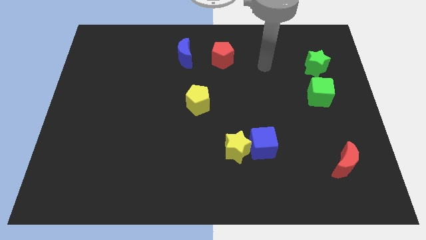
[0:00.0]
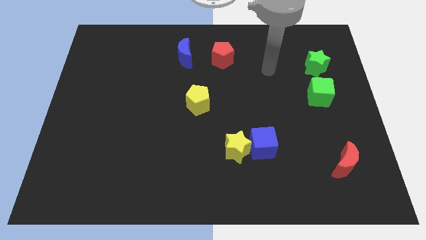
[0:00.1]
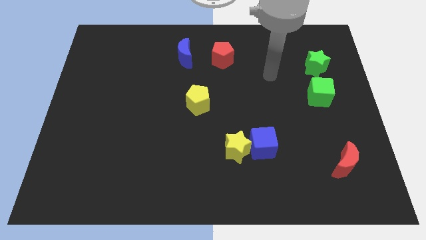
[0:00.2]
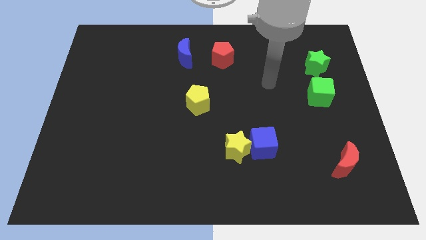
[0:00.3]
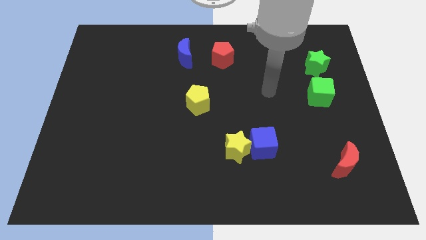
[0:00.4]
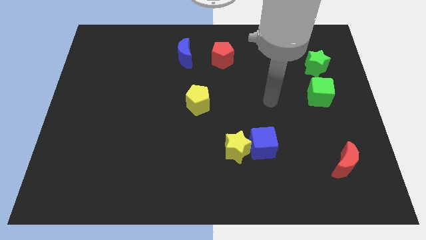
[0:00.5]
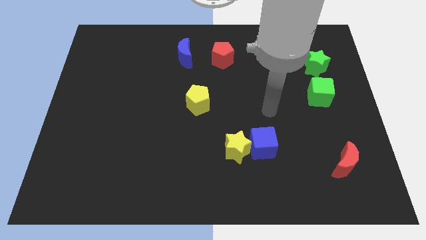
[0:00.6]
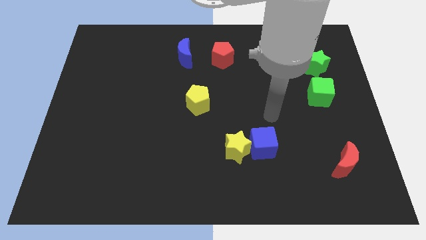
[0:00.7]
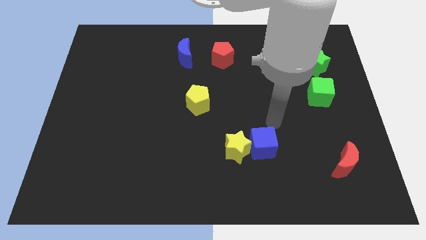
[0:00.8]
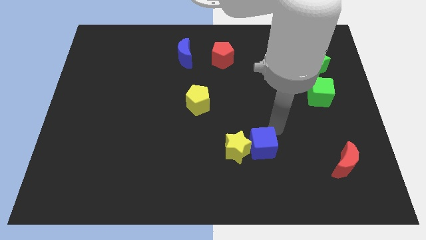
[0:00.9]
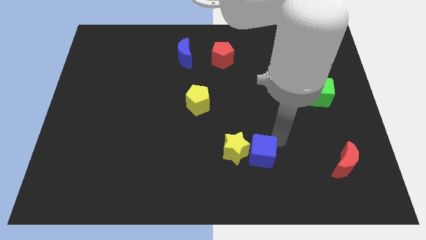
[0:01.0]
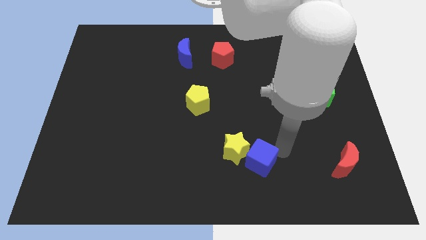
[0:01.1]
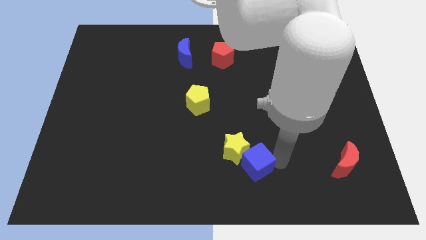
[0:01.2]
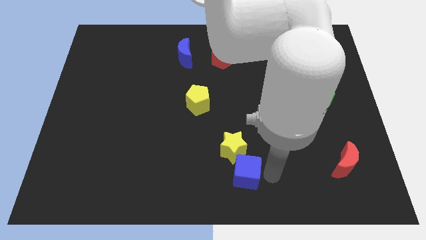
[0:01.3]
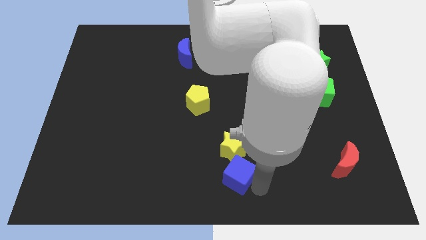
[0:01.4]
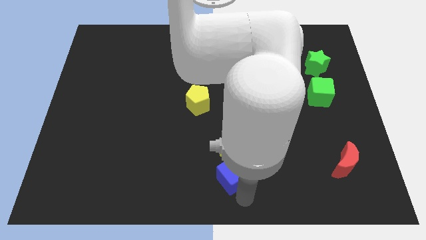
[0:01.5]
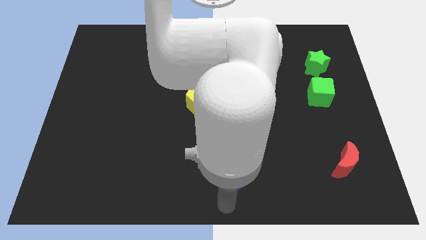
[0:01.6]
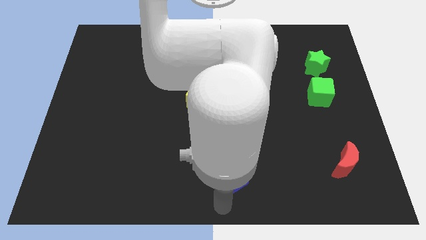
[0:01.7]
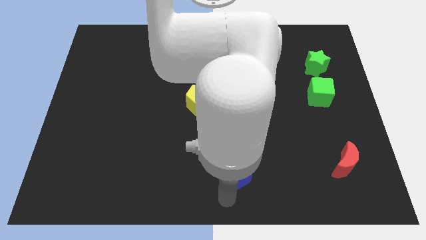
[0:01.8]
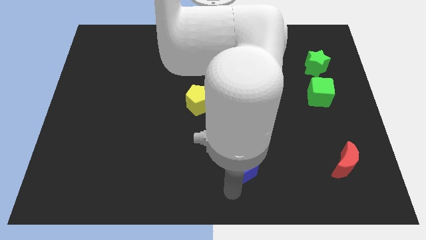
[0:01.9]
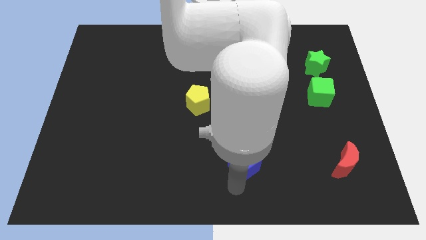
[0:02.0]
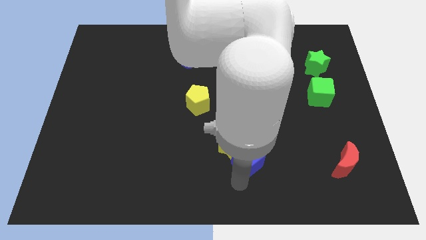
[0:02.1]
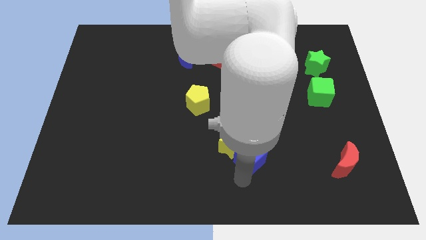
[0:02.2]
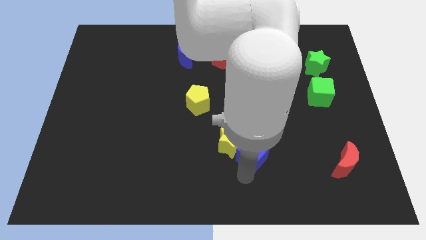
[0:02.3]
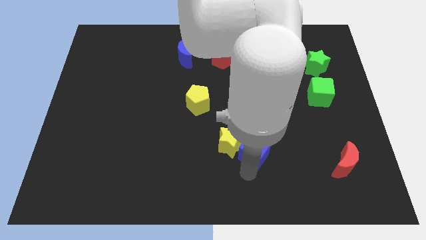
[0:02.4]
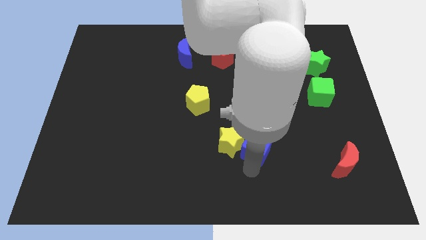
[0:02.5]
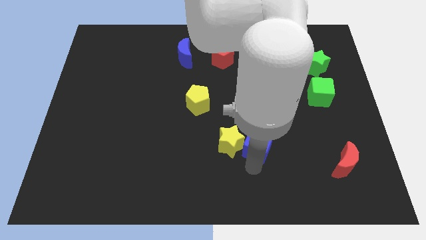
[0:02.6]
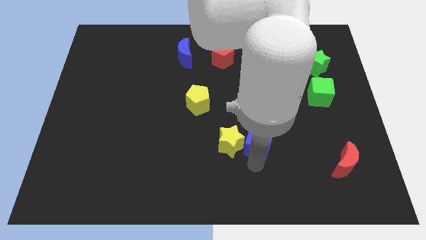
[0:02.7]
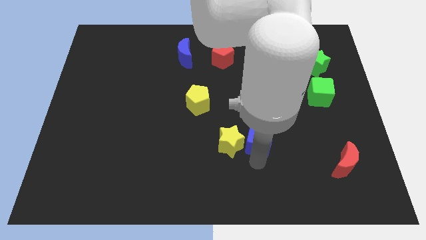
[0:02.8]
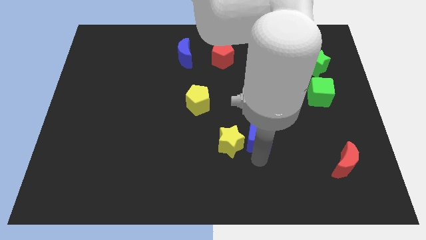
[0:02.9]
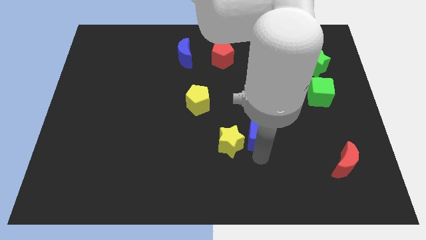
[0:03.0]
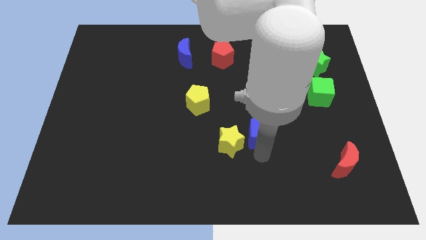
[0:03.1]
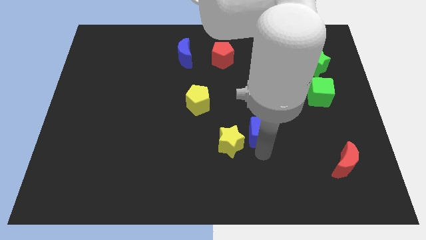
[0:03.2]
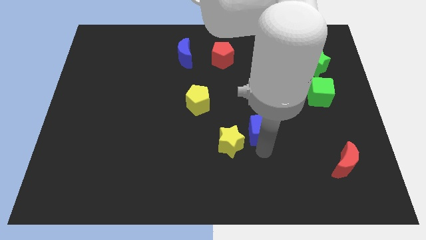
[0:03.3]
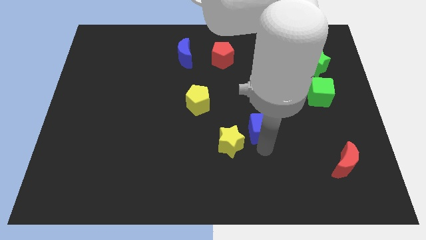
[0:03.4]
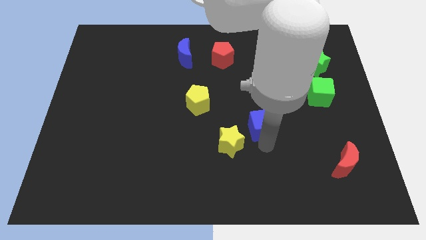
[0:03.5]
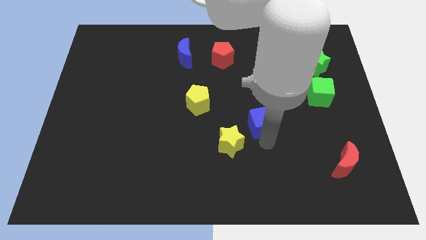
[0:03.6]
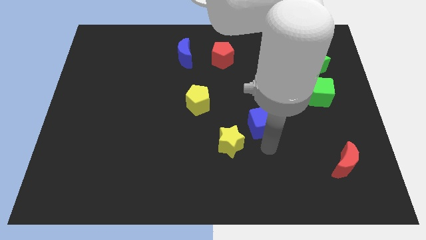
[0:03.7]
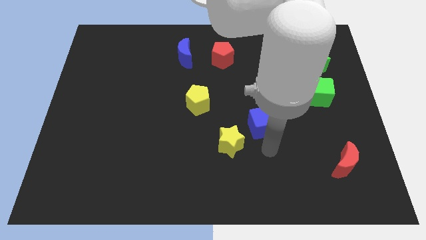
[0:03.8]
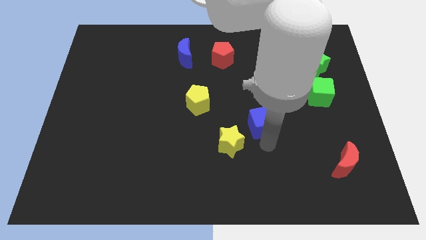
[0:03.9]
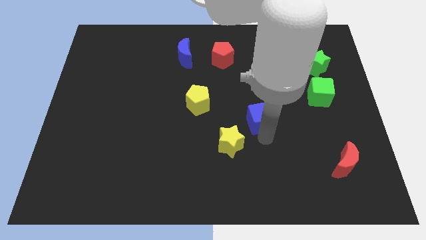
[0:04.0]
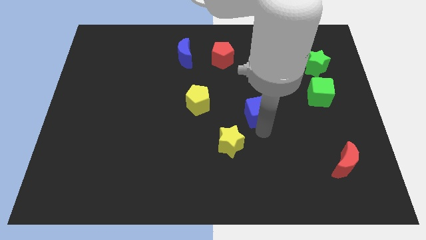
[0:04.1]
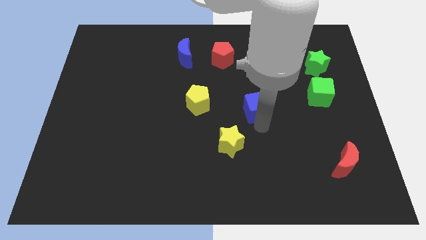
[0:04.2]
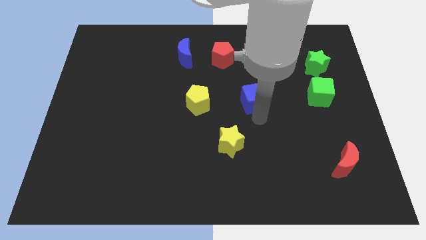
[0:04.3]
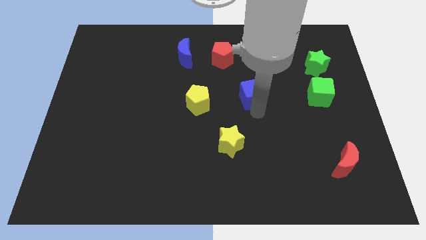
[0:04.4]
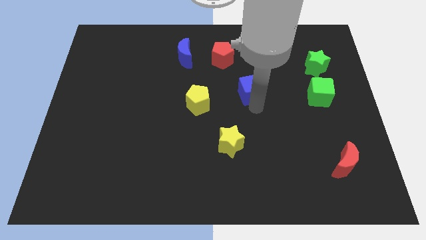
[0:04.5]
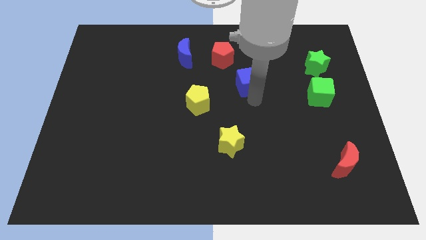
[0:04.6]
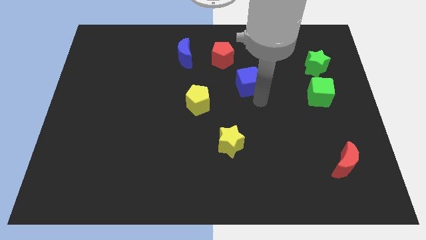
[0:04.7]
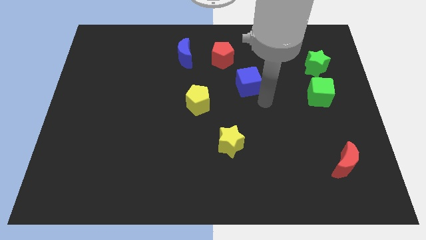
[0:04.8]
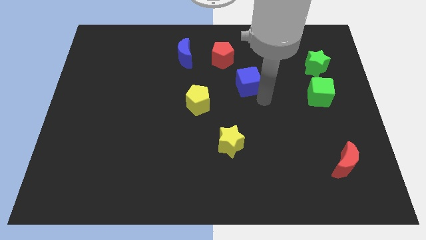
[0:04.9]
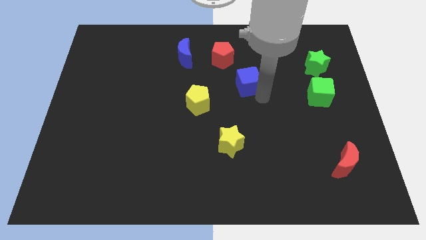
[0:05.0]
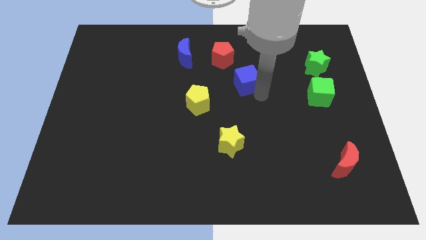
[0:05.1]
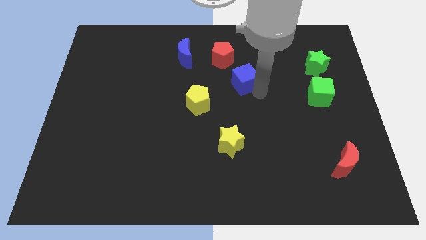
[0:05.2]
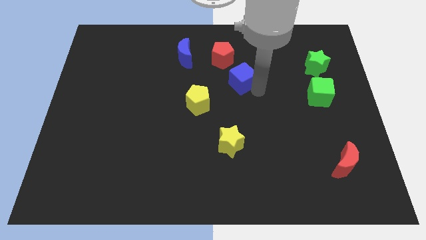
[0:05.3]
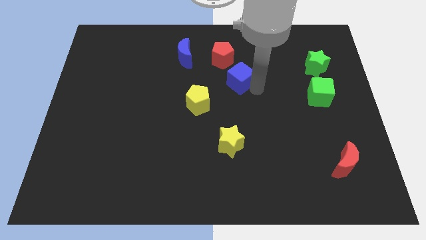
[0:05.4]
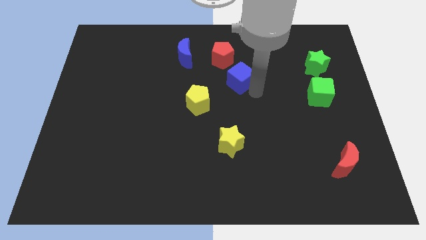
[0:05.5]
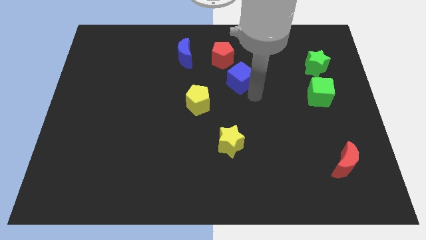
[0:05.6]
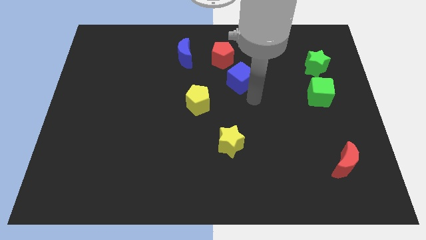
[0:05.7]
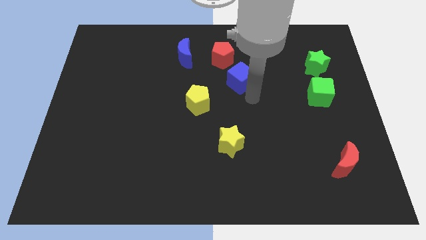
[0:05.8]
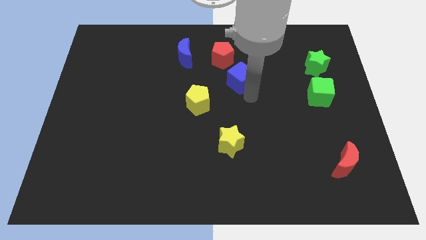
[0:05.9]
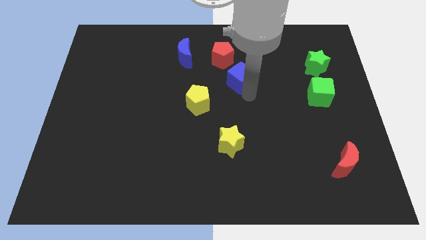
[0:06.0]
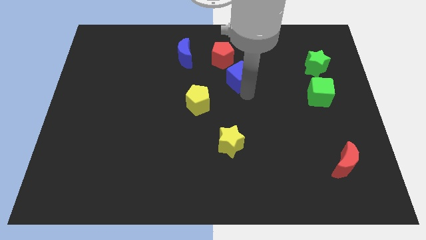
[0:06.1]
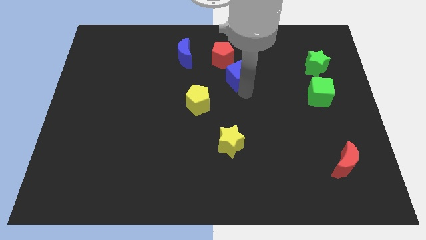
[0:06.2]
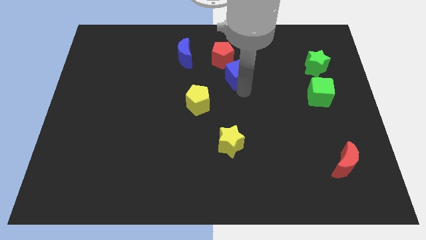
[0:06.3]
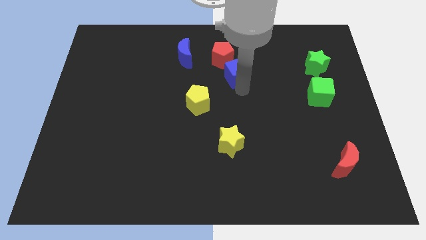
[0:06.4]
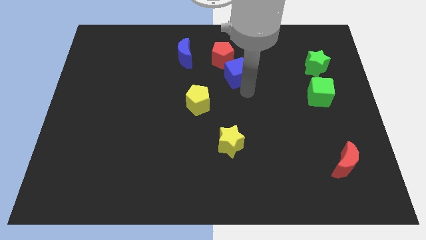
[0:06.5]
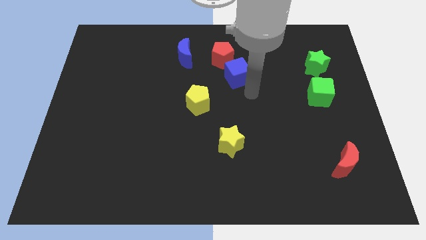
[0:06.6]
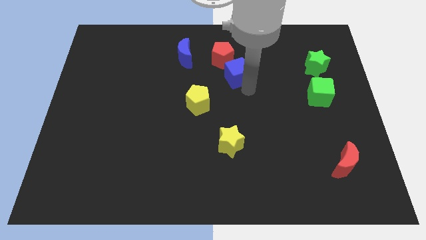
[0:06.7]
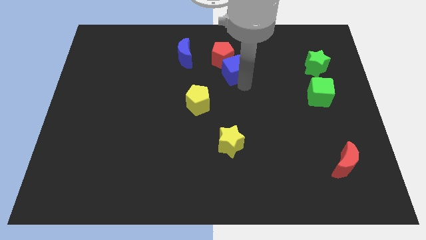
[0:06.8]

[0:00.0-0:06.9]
move the blue cube to the red pentagon
